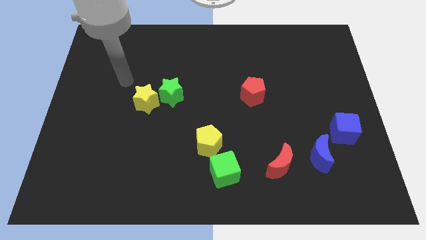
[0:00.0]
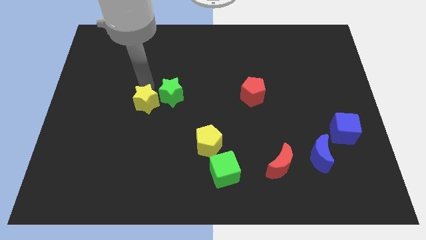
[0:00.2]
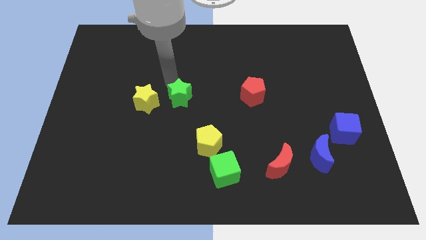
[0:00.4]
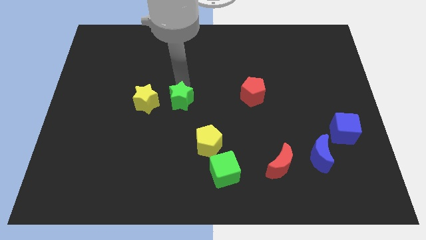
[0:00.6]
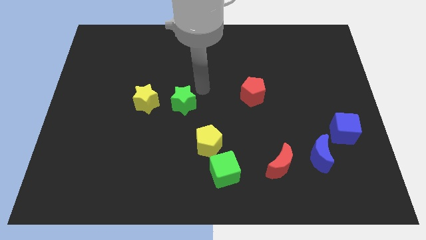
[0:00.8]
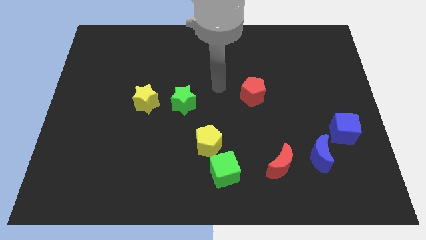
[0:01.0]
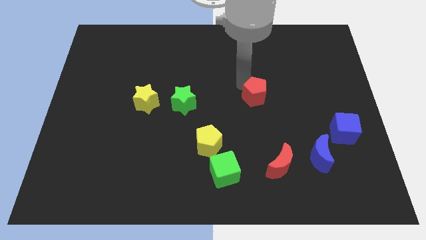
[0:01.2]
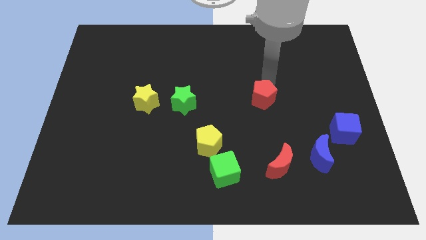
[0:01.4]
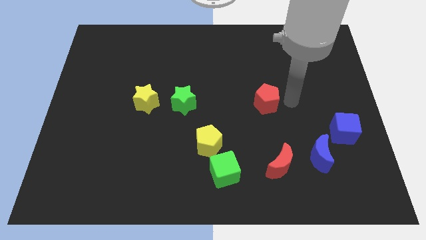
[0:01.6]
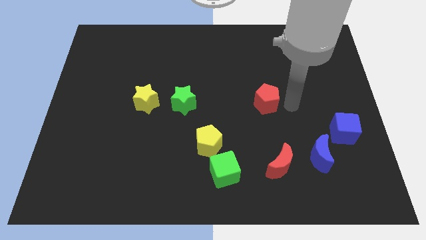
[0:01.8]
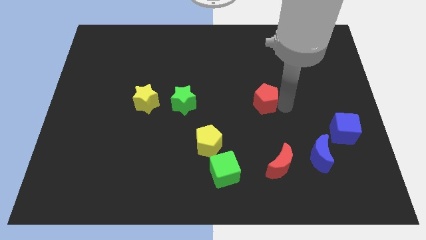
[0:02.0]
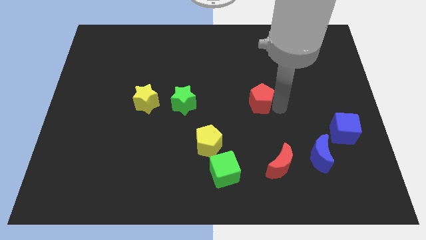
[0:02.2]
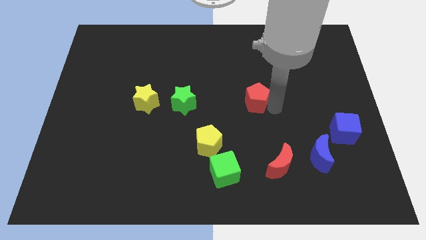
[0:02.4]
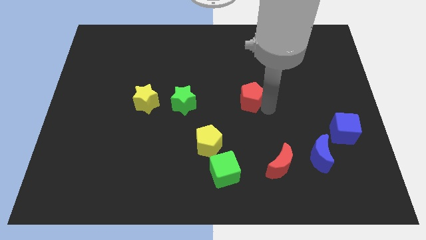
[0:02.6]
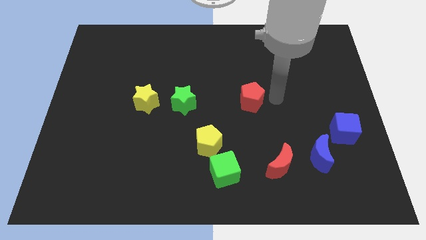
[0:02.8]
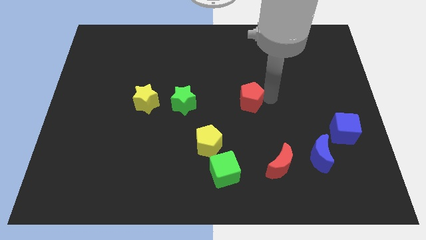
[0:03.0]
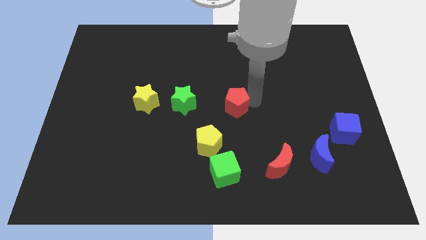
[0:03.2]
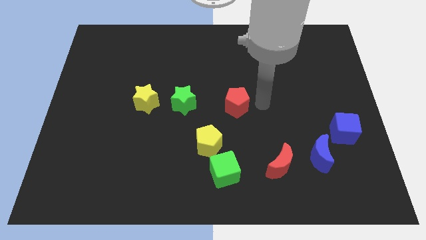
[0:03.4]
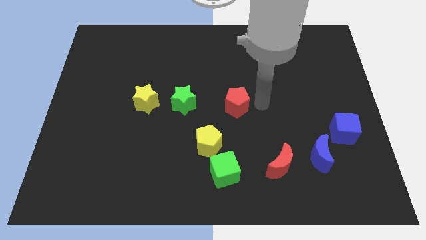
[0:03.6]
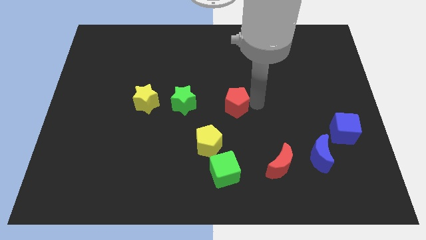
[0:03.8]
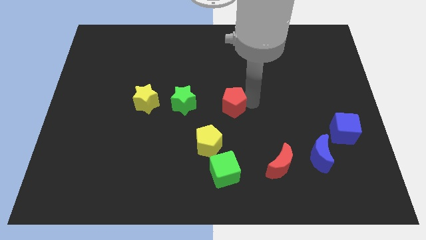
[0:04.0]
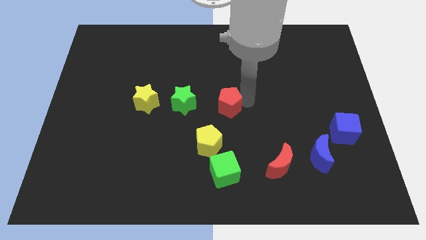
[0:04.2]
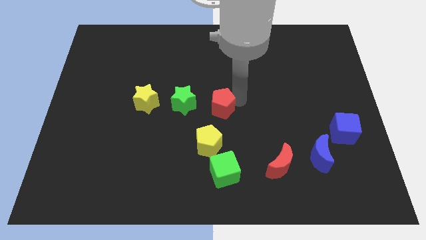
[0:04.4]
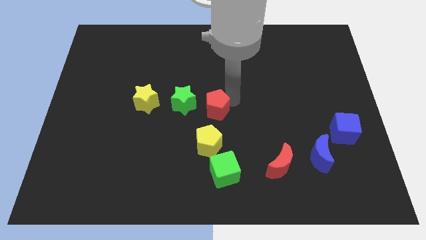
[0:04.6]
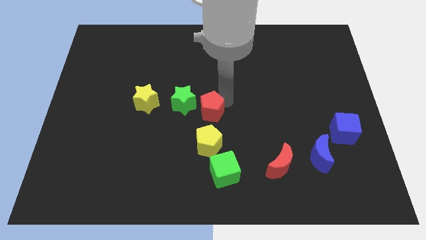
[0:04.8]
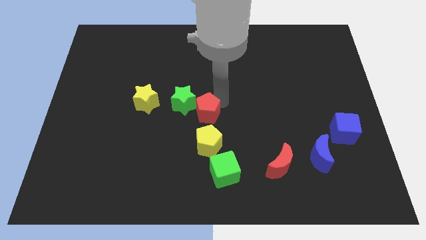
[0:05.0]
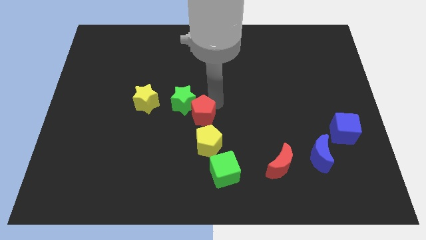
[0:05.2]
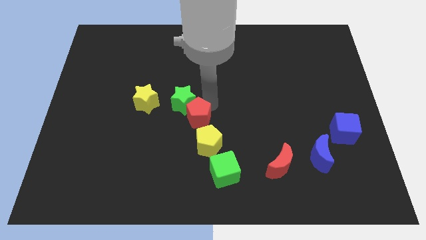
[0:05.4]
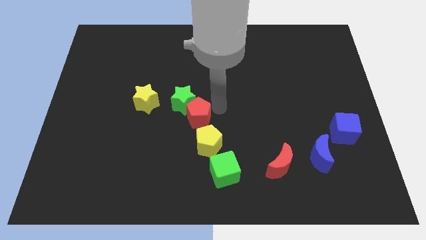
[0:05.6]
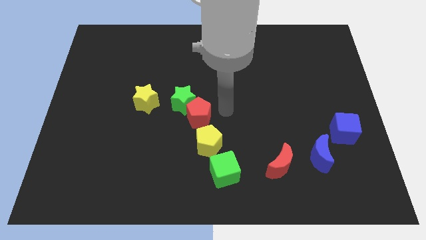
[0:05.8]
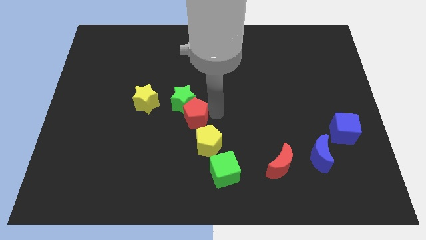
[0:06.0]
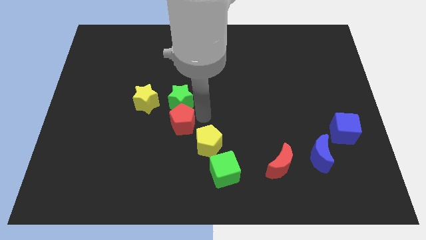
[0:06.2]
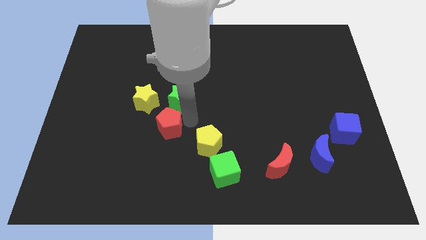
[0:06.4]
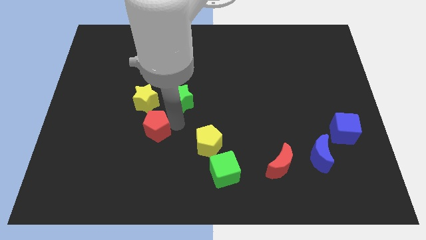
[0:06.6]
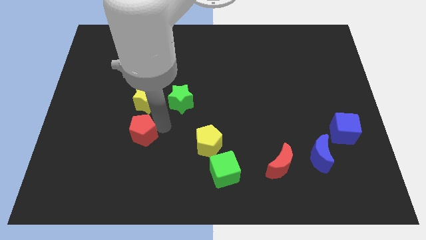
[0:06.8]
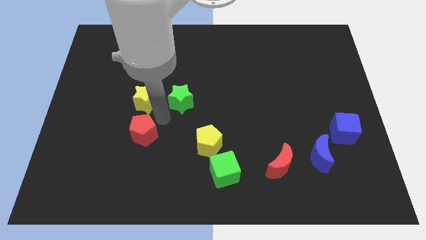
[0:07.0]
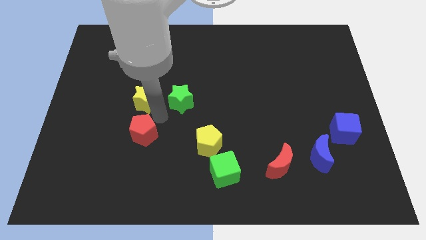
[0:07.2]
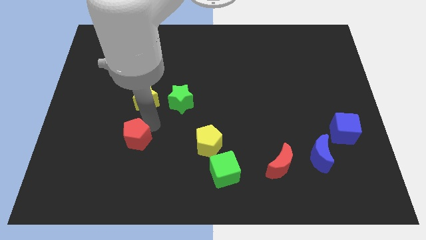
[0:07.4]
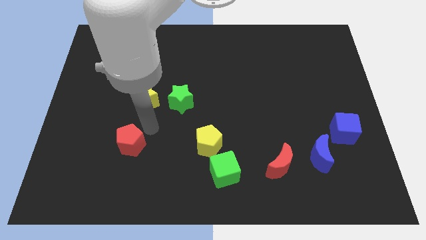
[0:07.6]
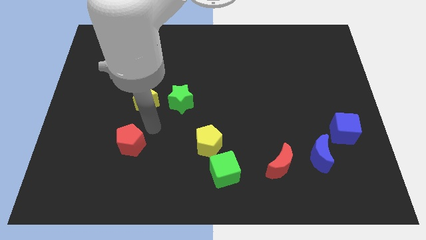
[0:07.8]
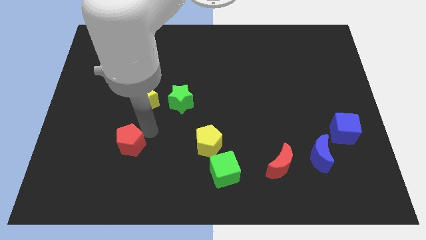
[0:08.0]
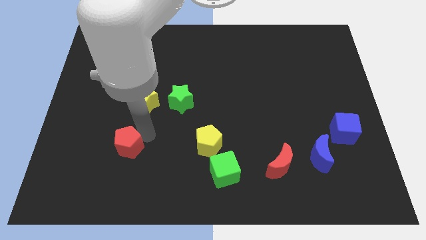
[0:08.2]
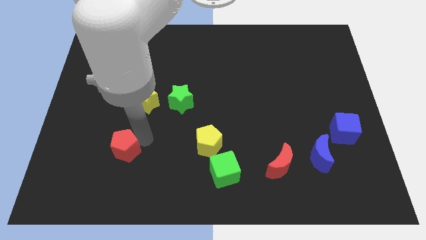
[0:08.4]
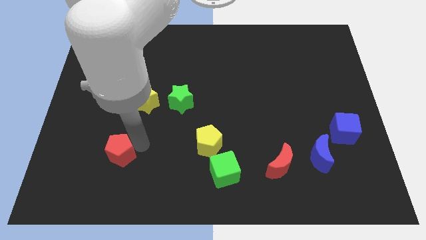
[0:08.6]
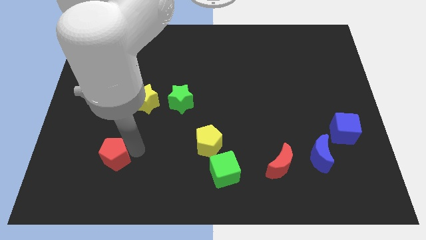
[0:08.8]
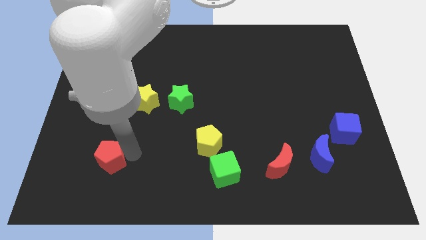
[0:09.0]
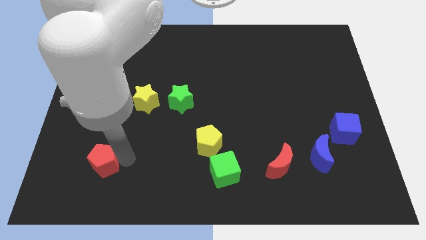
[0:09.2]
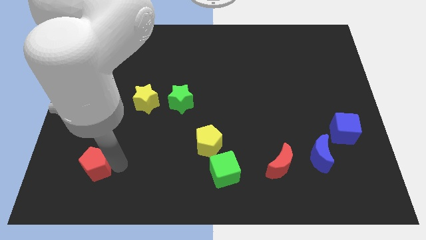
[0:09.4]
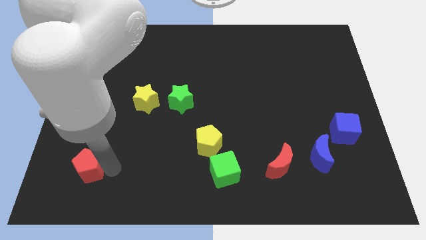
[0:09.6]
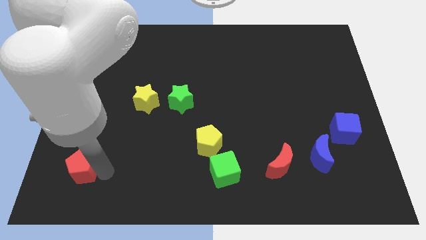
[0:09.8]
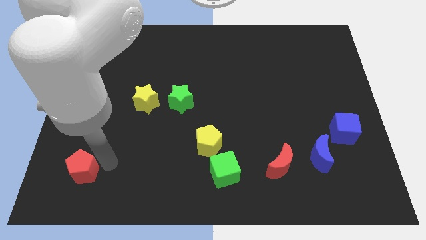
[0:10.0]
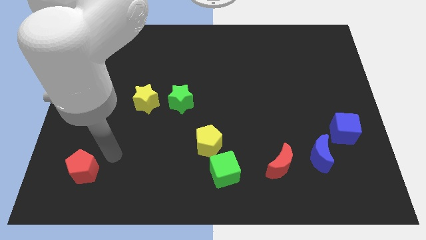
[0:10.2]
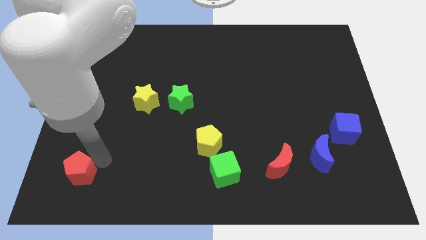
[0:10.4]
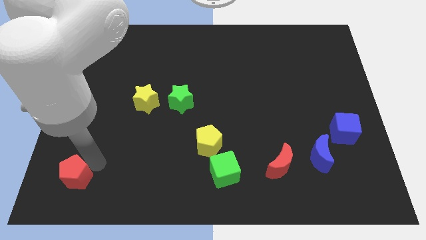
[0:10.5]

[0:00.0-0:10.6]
slide the red pentagon to the bottom left corner
